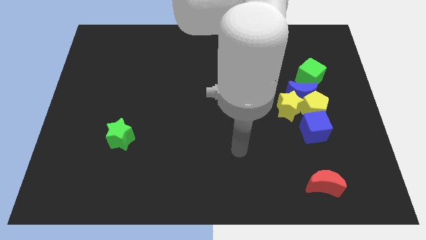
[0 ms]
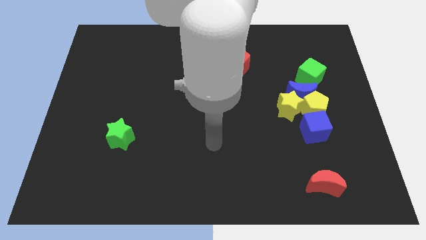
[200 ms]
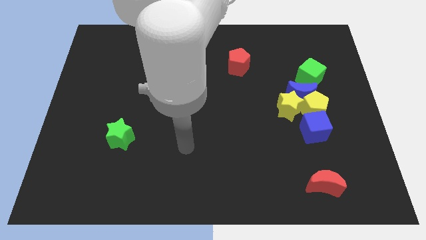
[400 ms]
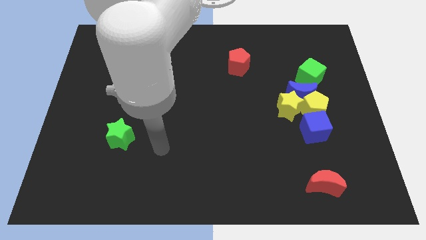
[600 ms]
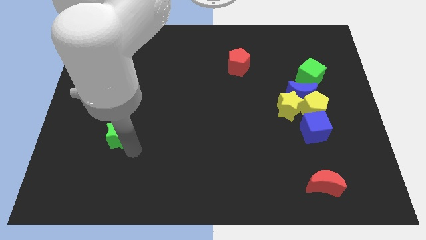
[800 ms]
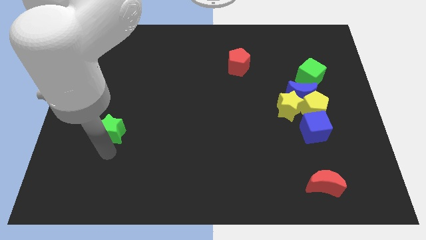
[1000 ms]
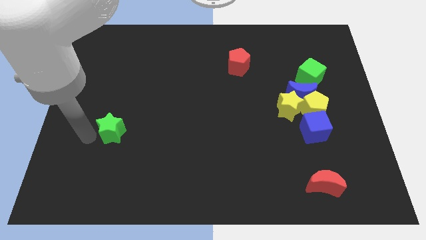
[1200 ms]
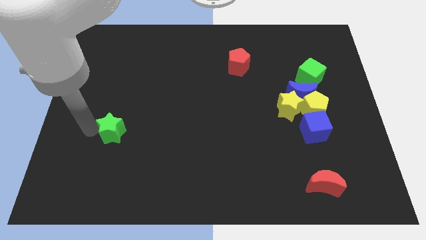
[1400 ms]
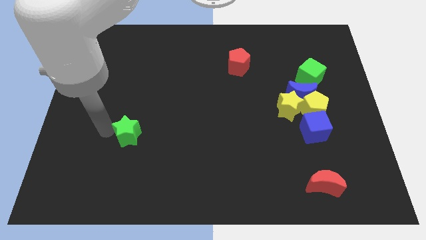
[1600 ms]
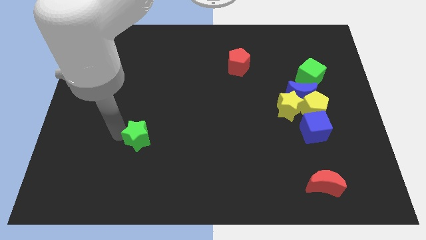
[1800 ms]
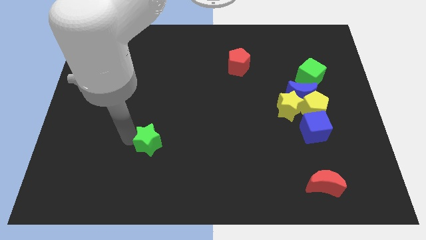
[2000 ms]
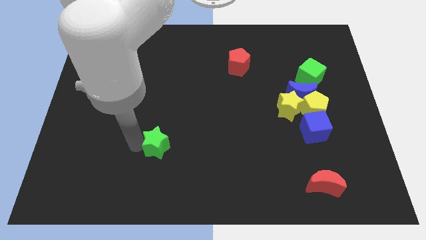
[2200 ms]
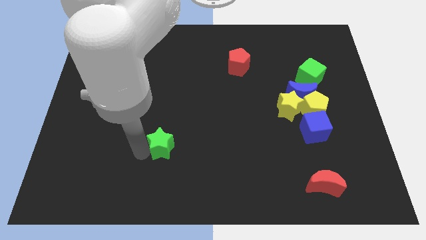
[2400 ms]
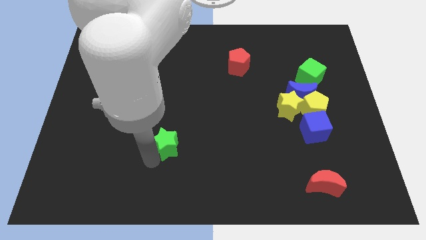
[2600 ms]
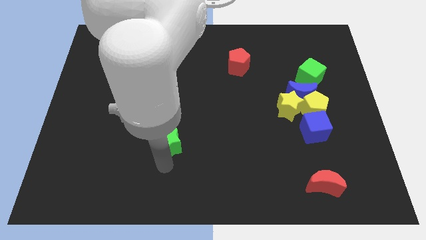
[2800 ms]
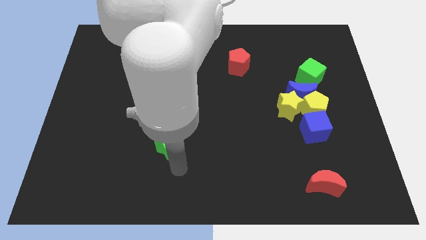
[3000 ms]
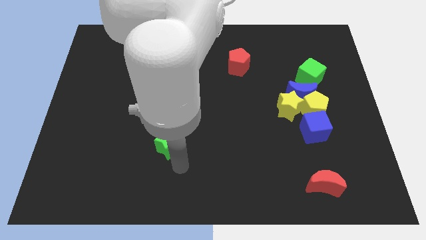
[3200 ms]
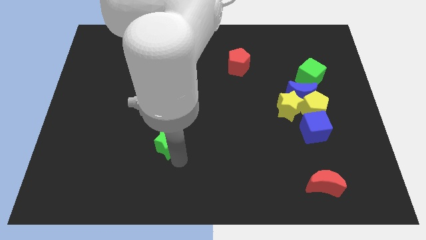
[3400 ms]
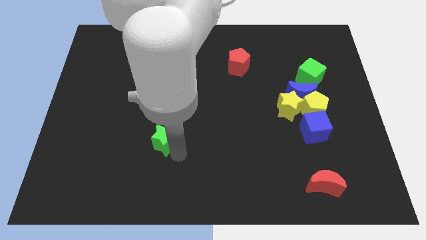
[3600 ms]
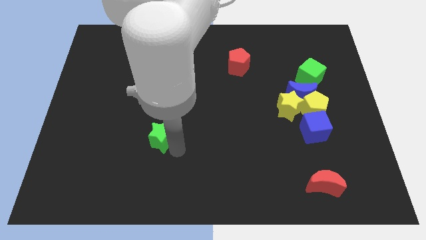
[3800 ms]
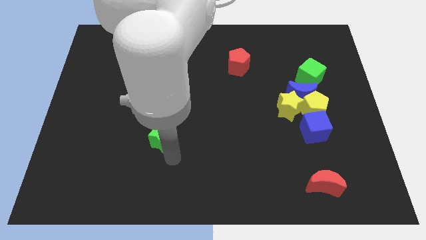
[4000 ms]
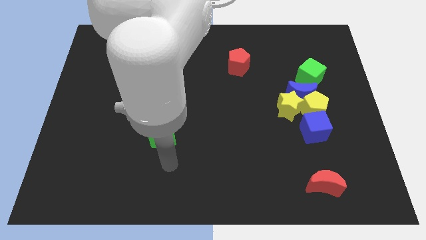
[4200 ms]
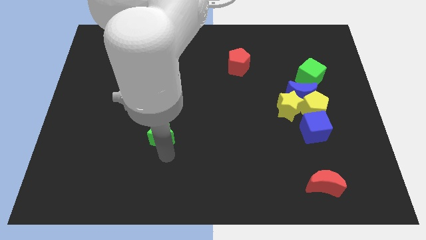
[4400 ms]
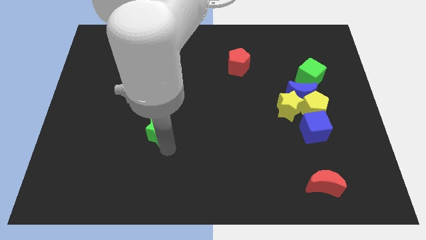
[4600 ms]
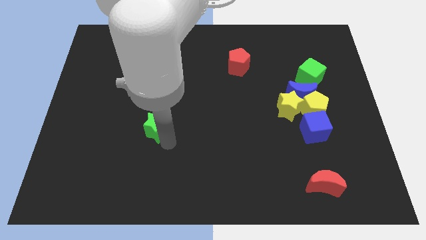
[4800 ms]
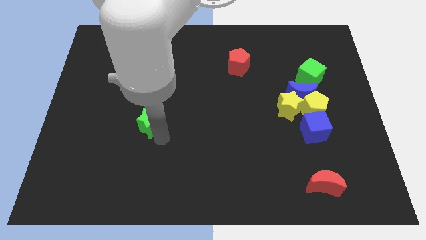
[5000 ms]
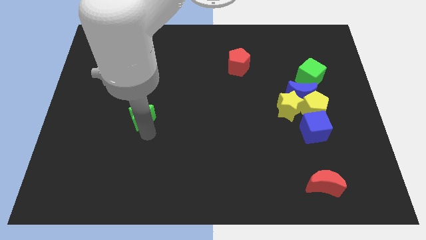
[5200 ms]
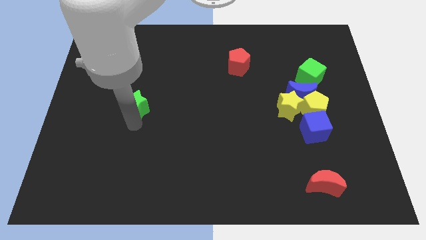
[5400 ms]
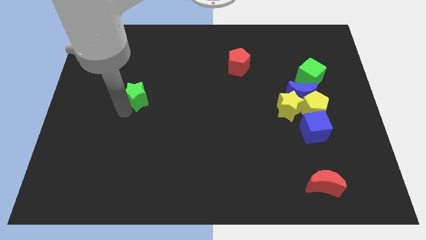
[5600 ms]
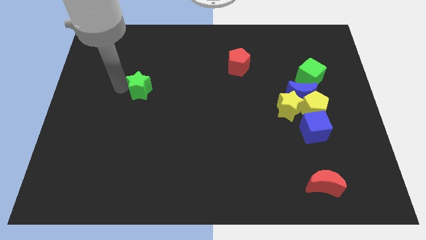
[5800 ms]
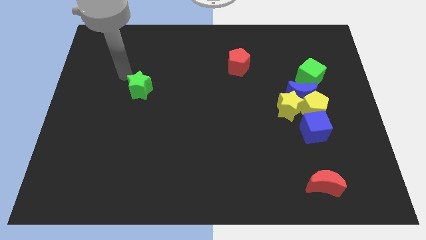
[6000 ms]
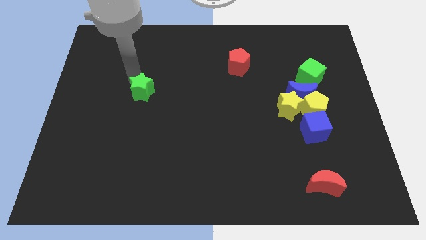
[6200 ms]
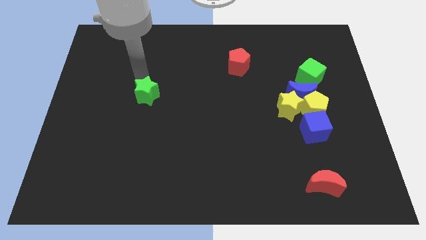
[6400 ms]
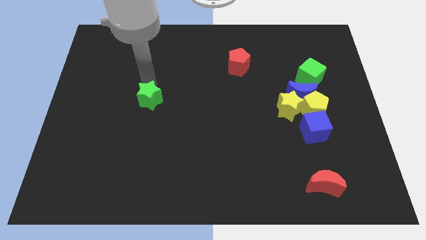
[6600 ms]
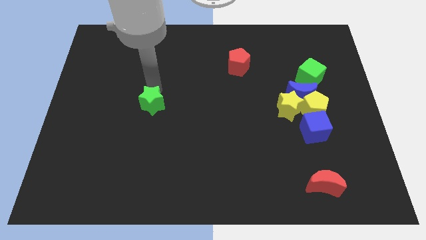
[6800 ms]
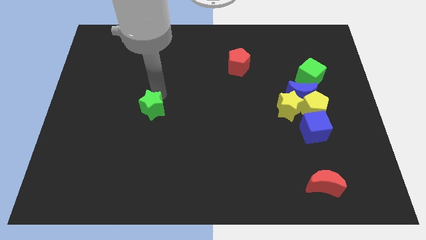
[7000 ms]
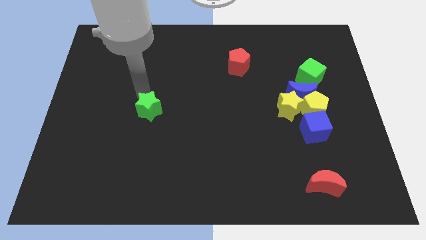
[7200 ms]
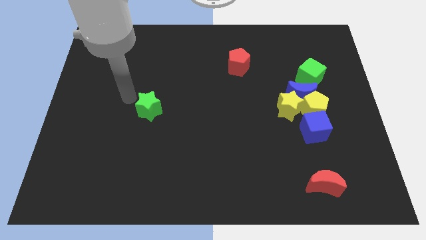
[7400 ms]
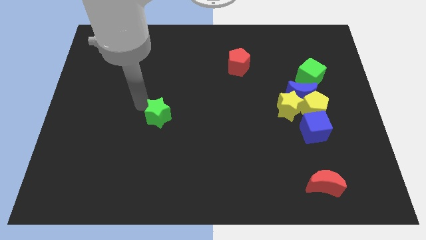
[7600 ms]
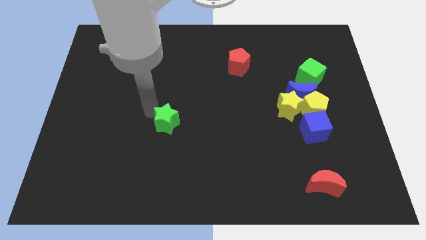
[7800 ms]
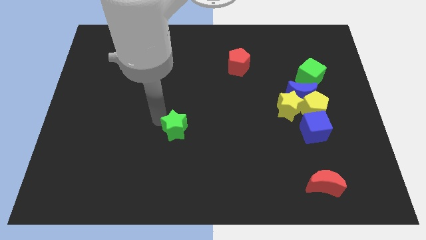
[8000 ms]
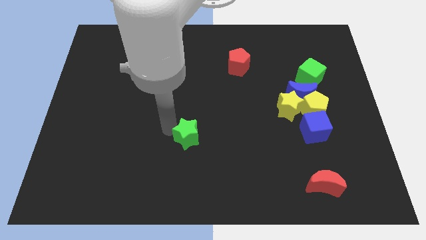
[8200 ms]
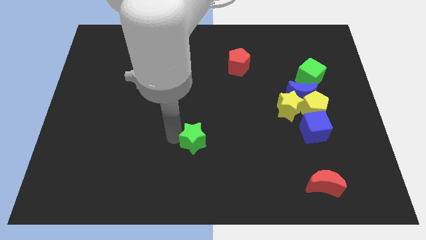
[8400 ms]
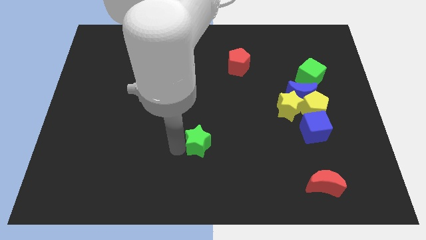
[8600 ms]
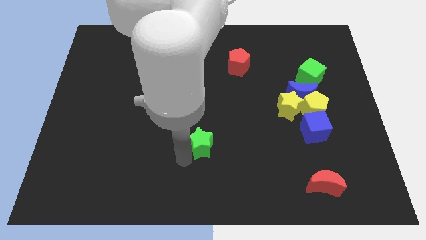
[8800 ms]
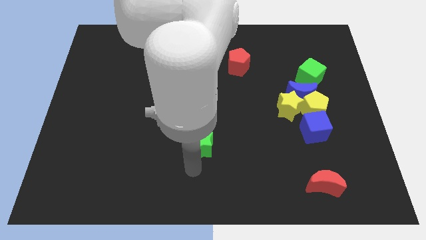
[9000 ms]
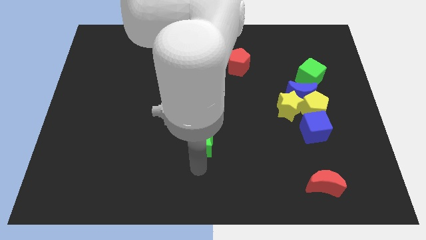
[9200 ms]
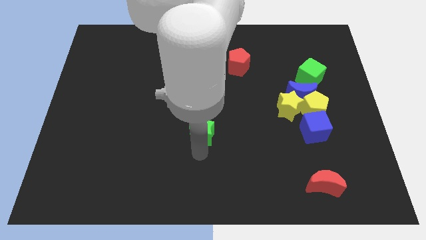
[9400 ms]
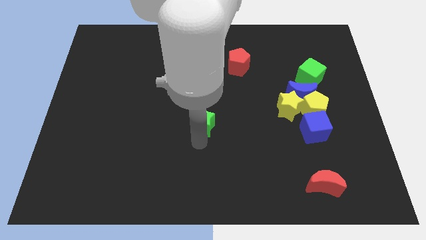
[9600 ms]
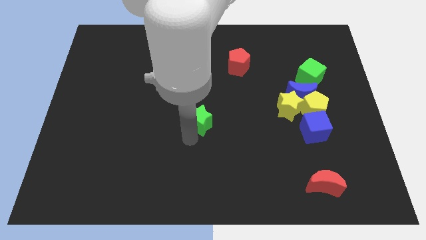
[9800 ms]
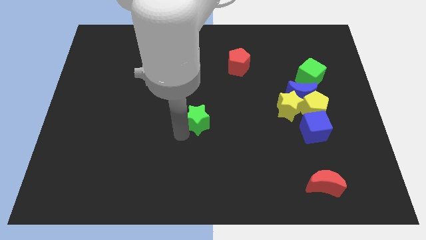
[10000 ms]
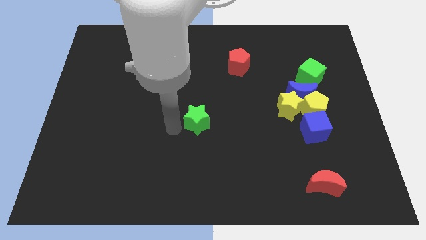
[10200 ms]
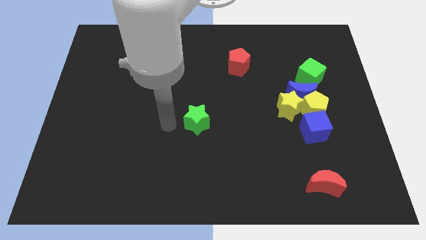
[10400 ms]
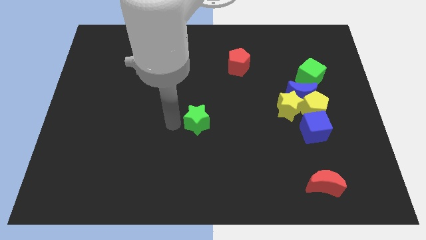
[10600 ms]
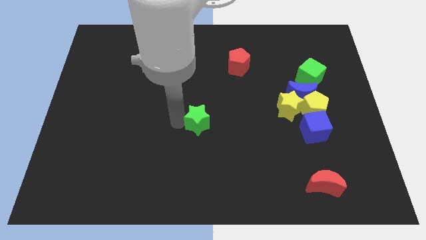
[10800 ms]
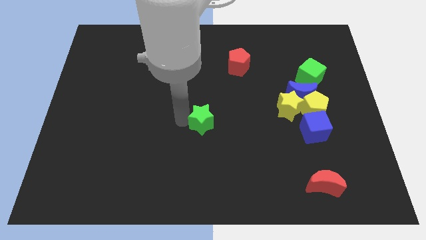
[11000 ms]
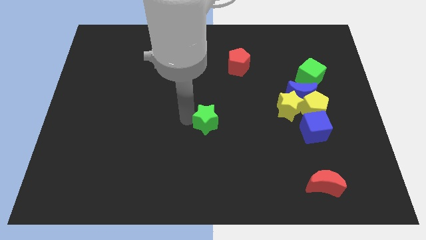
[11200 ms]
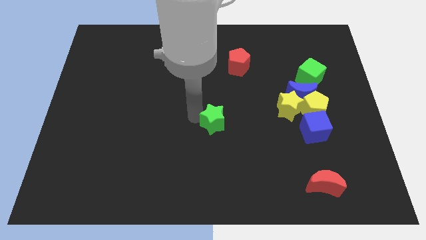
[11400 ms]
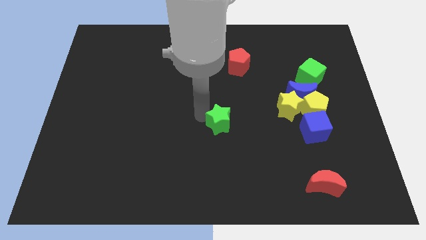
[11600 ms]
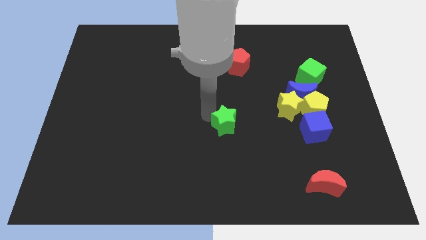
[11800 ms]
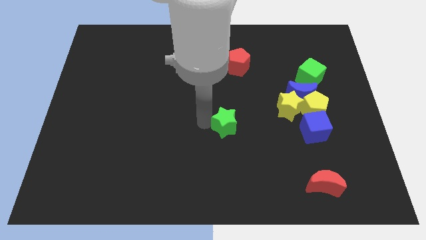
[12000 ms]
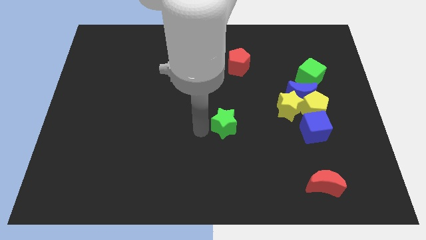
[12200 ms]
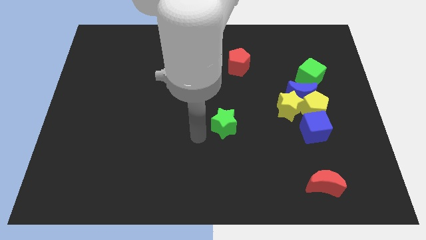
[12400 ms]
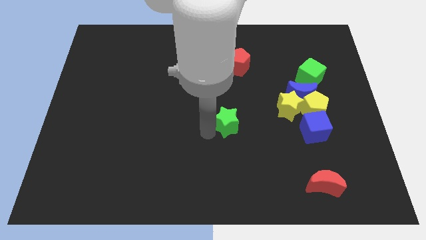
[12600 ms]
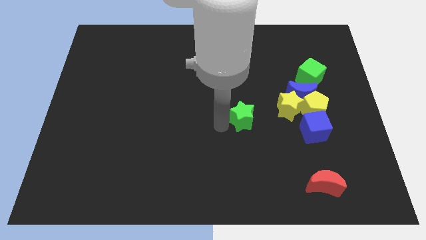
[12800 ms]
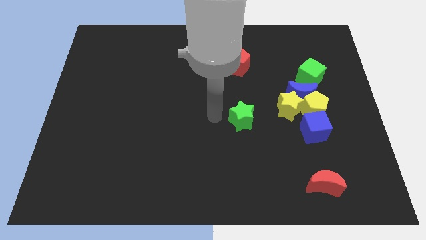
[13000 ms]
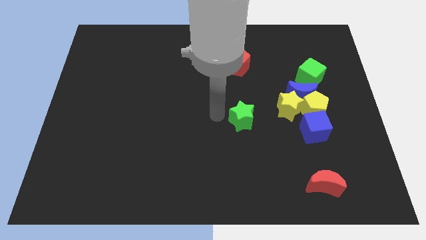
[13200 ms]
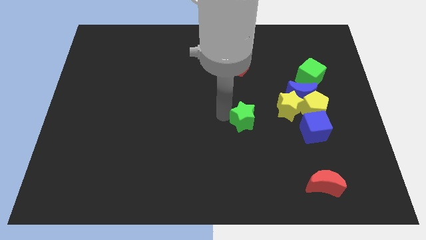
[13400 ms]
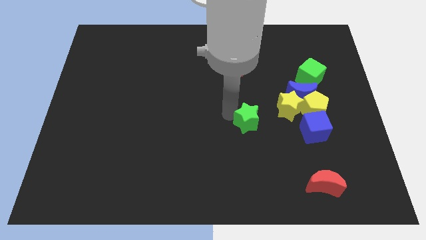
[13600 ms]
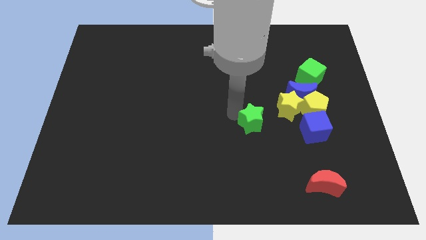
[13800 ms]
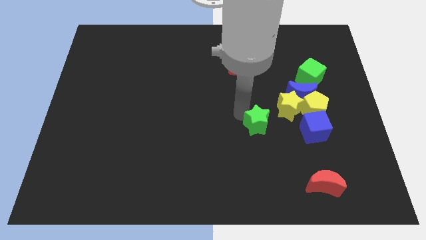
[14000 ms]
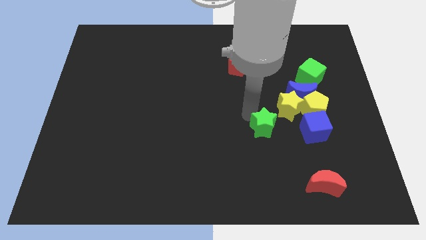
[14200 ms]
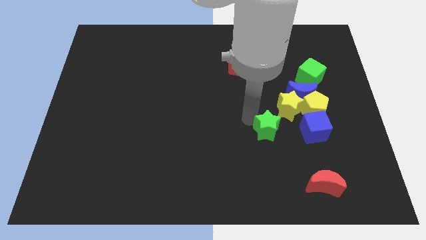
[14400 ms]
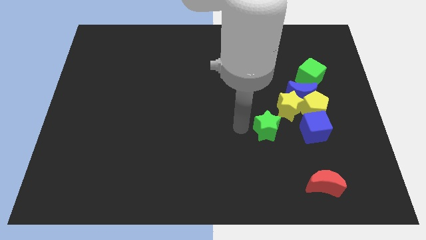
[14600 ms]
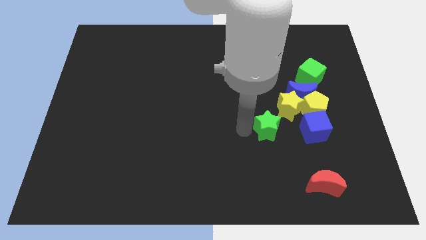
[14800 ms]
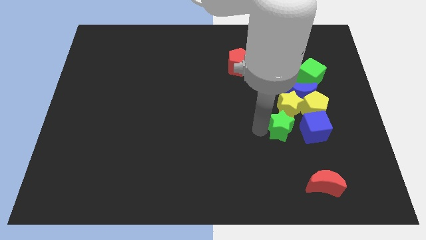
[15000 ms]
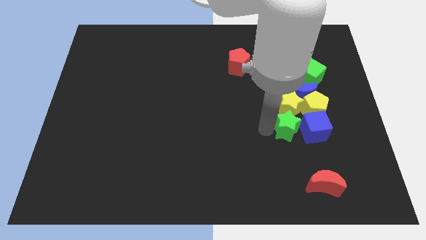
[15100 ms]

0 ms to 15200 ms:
move the green star towards the blue cube
